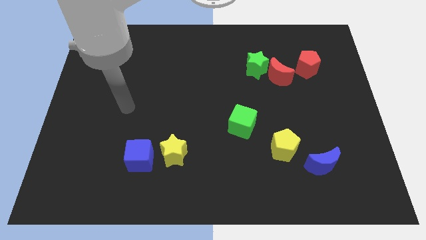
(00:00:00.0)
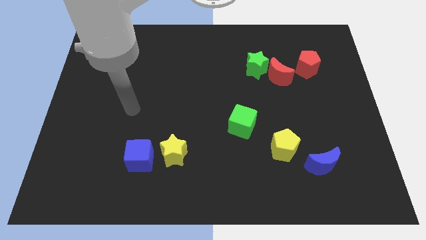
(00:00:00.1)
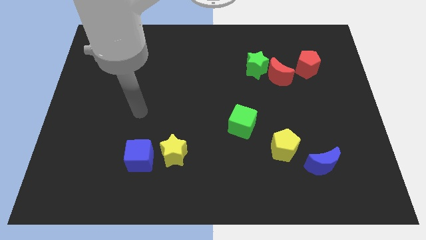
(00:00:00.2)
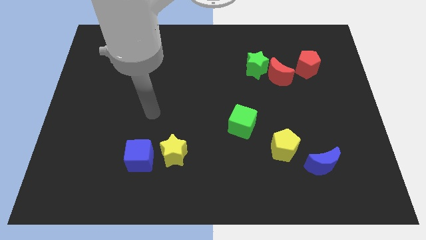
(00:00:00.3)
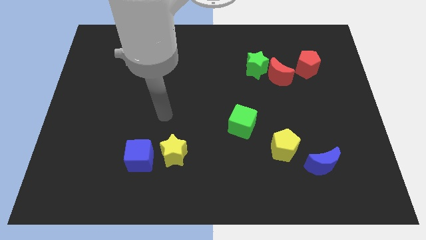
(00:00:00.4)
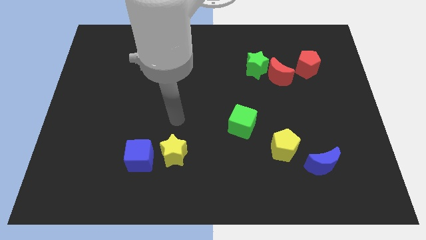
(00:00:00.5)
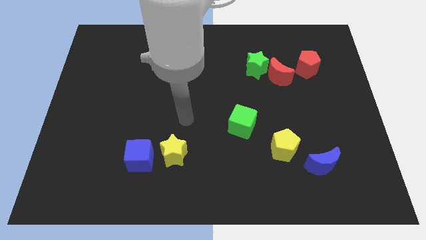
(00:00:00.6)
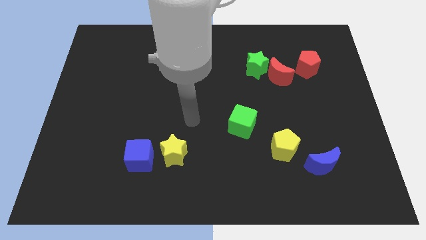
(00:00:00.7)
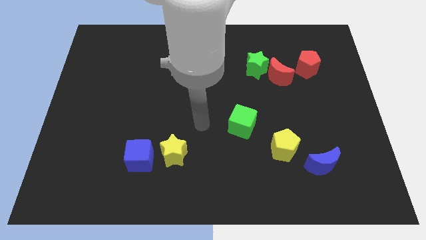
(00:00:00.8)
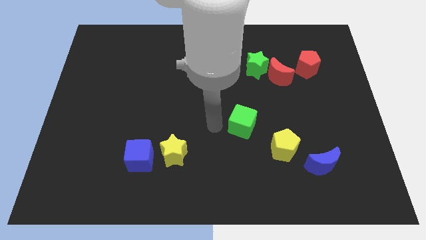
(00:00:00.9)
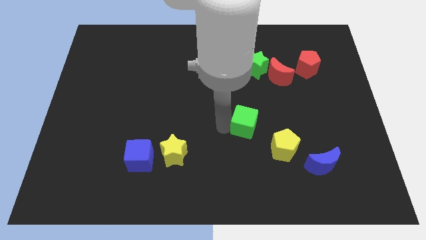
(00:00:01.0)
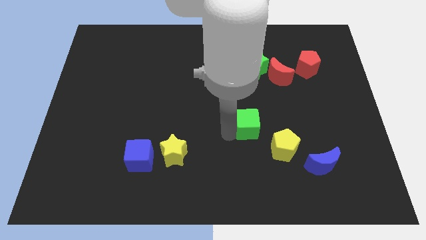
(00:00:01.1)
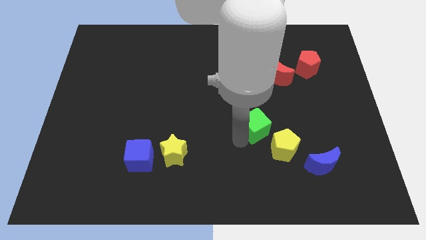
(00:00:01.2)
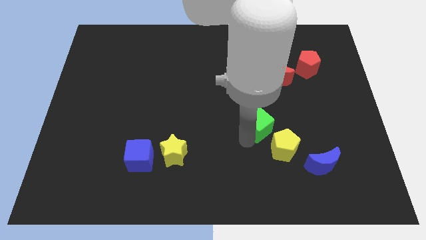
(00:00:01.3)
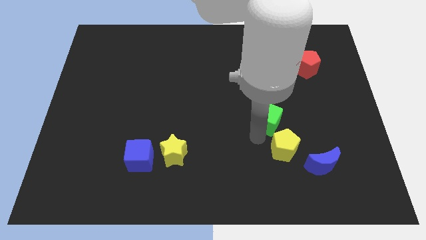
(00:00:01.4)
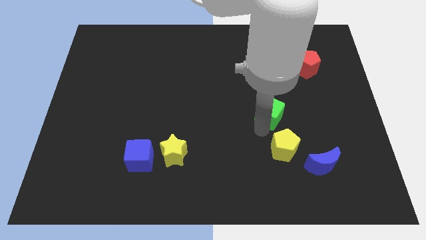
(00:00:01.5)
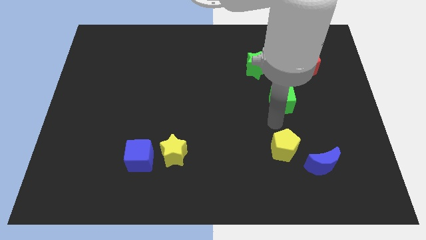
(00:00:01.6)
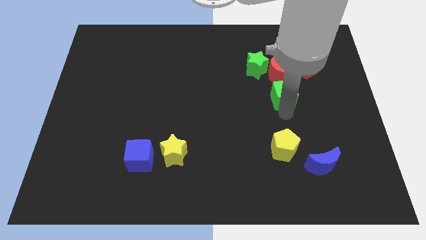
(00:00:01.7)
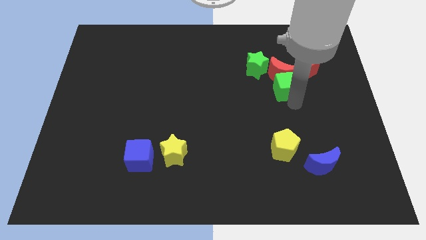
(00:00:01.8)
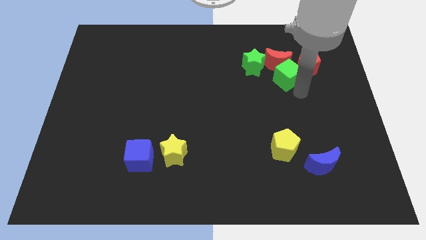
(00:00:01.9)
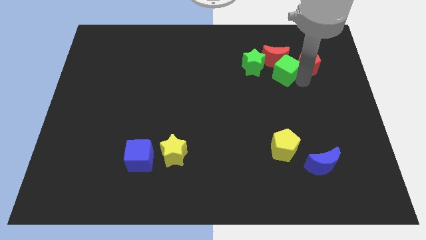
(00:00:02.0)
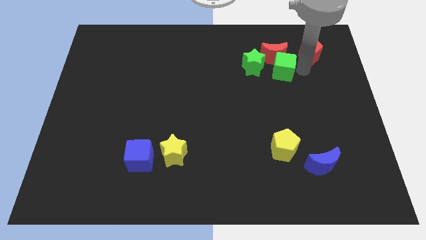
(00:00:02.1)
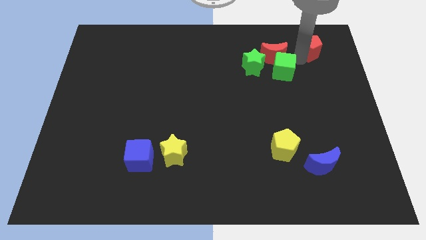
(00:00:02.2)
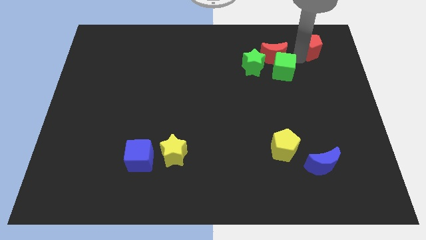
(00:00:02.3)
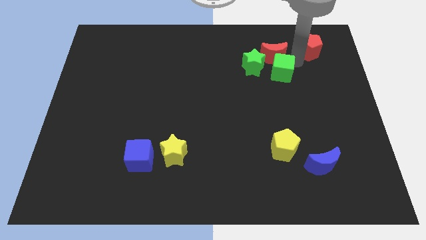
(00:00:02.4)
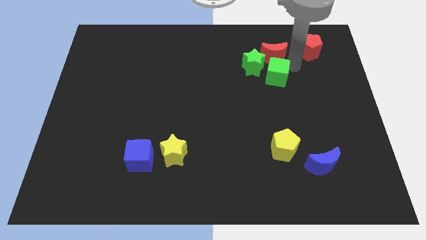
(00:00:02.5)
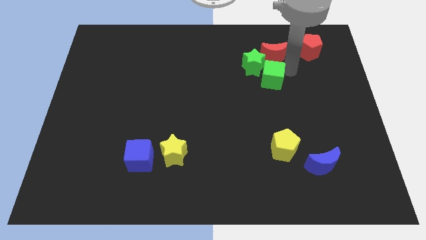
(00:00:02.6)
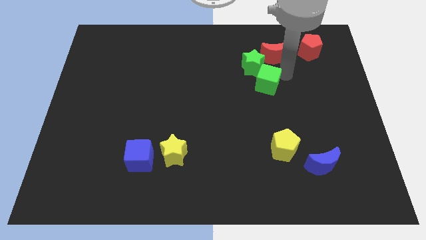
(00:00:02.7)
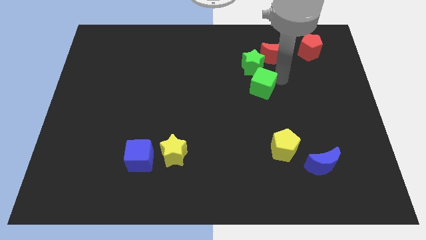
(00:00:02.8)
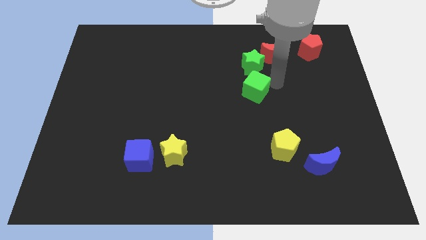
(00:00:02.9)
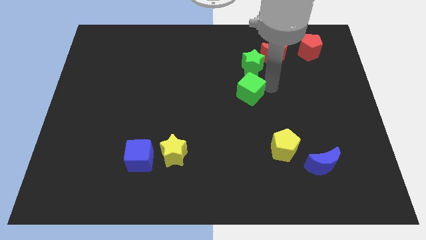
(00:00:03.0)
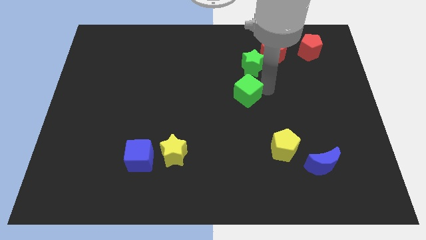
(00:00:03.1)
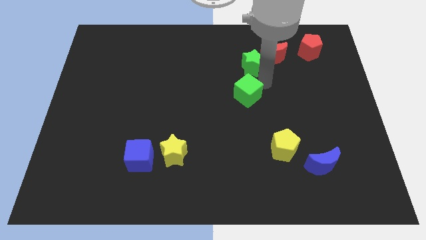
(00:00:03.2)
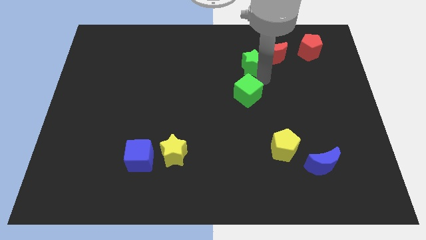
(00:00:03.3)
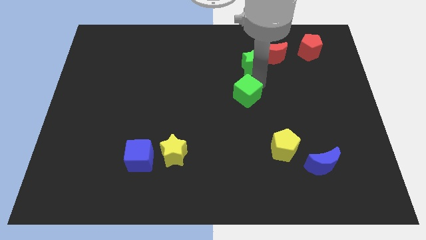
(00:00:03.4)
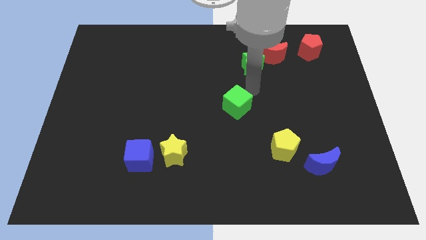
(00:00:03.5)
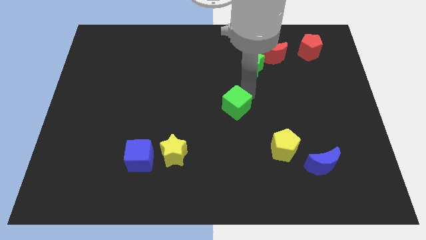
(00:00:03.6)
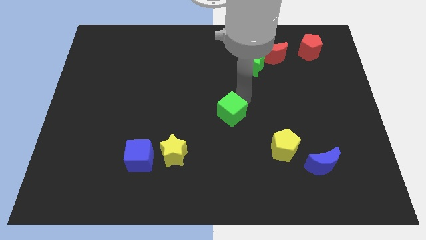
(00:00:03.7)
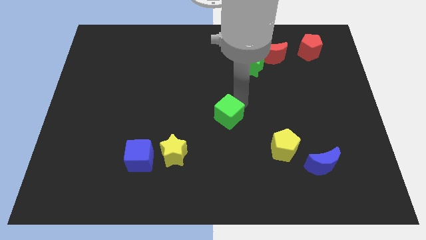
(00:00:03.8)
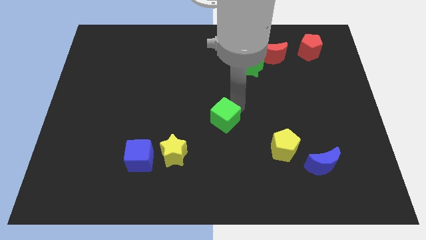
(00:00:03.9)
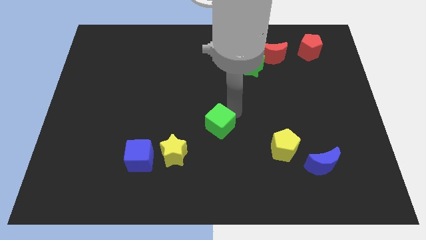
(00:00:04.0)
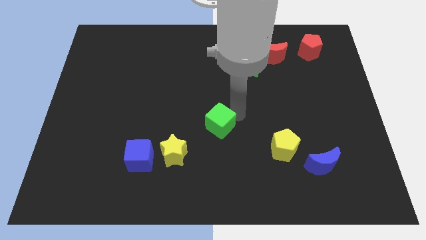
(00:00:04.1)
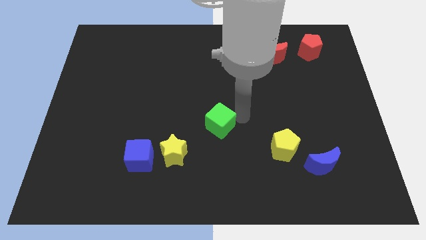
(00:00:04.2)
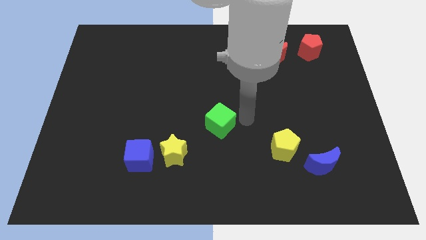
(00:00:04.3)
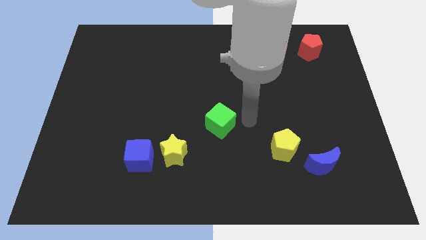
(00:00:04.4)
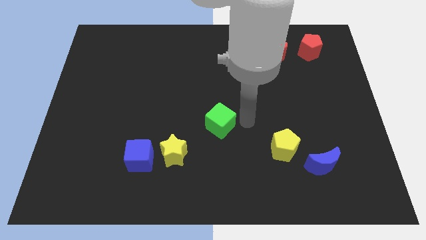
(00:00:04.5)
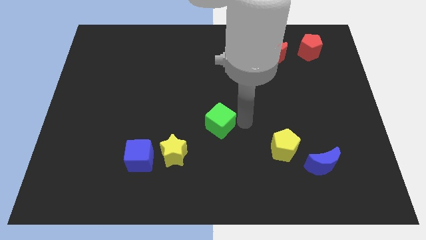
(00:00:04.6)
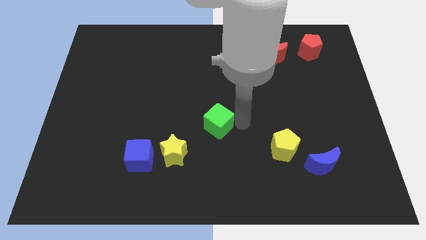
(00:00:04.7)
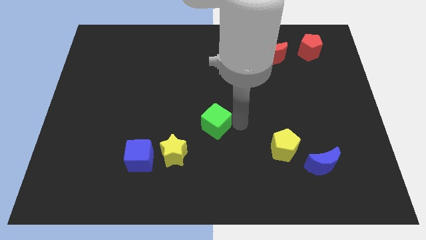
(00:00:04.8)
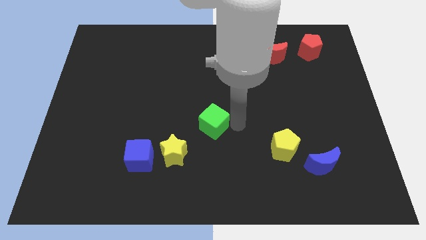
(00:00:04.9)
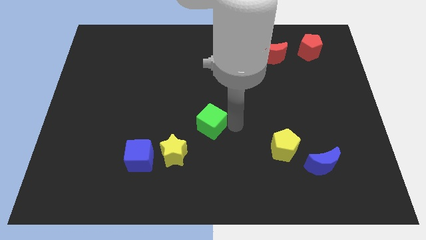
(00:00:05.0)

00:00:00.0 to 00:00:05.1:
slightly slide the green cube left

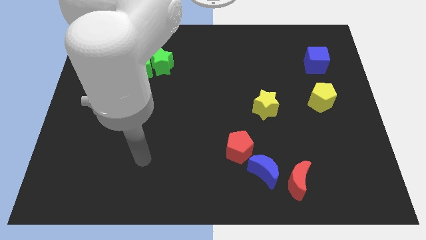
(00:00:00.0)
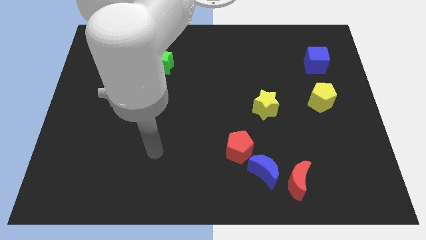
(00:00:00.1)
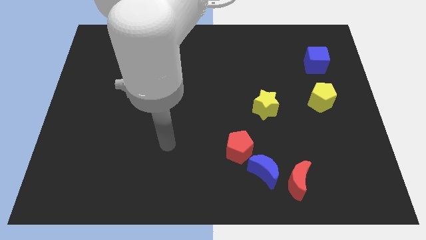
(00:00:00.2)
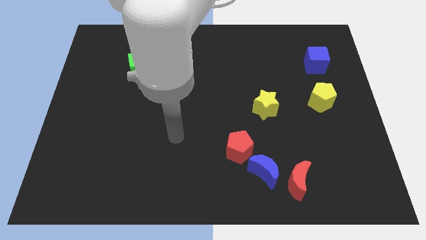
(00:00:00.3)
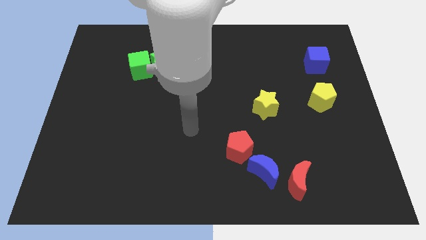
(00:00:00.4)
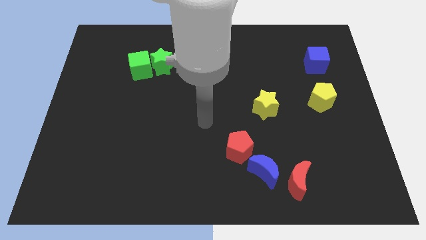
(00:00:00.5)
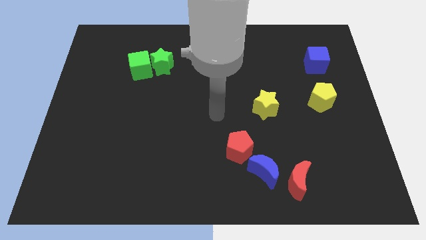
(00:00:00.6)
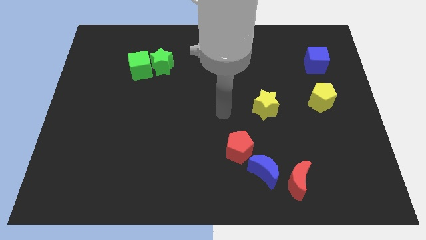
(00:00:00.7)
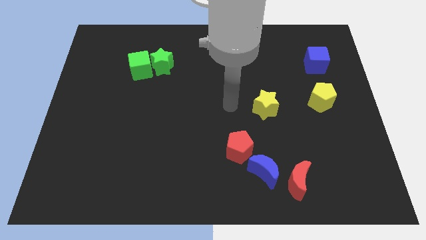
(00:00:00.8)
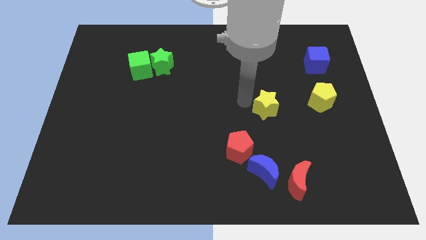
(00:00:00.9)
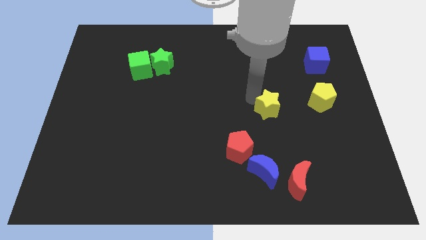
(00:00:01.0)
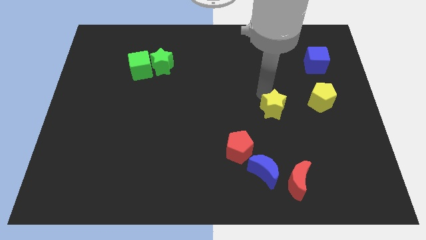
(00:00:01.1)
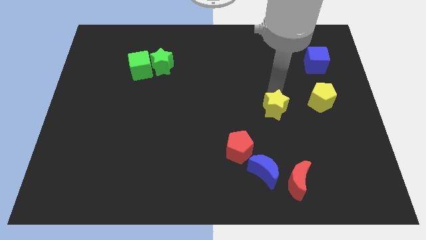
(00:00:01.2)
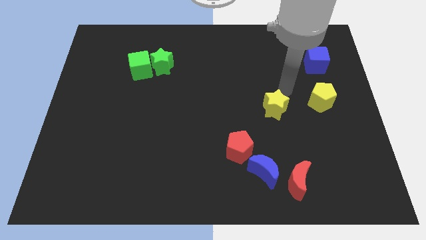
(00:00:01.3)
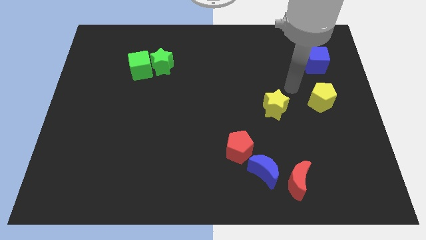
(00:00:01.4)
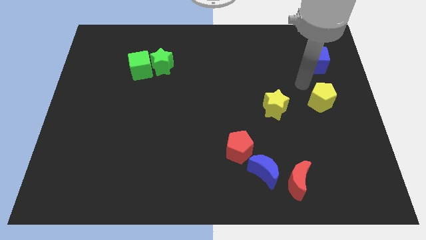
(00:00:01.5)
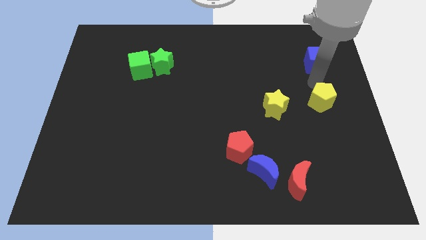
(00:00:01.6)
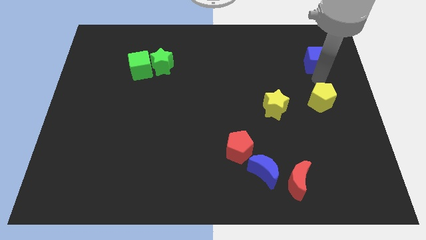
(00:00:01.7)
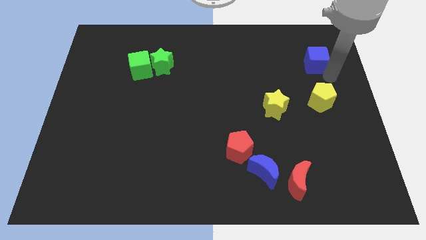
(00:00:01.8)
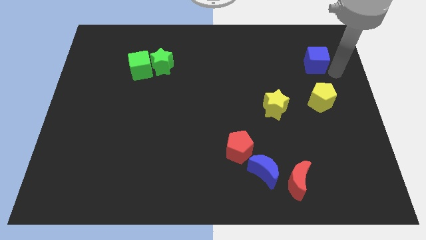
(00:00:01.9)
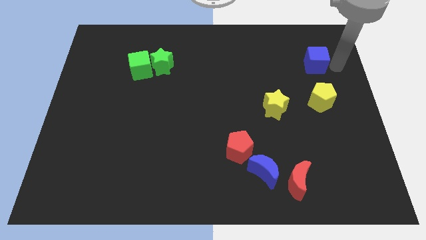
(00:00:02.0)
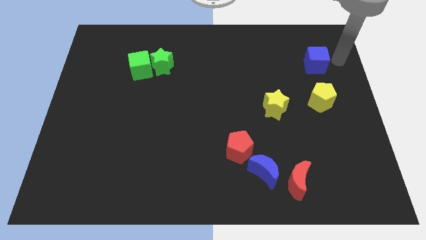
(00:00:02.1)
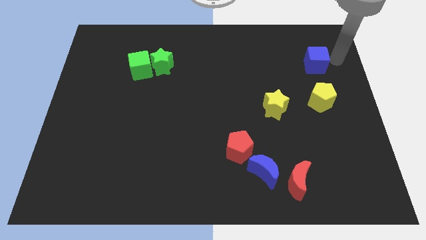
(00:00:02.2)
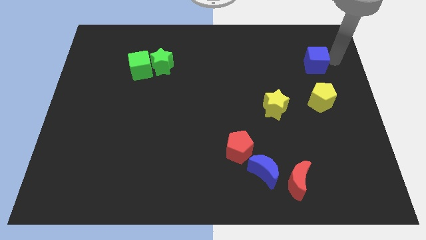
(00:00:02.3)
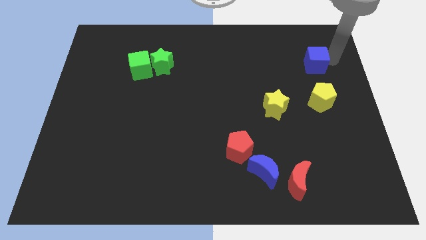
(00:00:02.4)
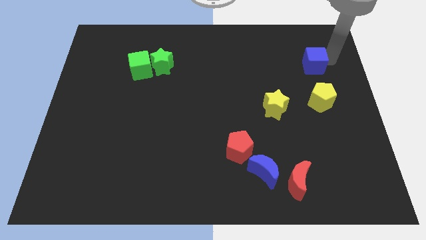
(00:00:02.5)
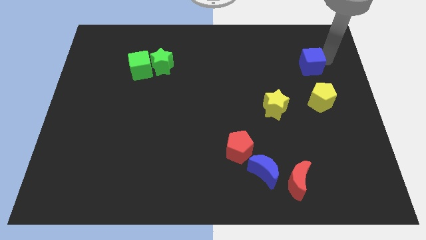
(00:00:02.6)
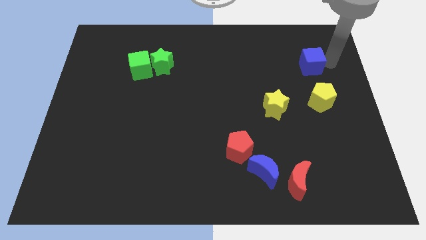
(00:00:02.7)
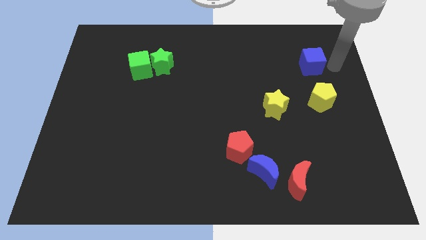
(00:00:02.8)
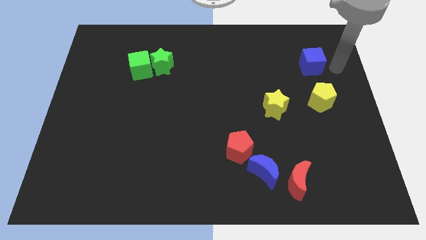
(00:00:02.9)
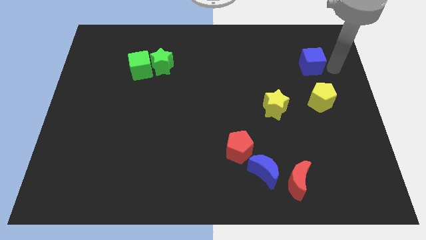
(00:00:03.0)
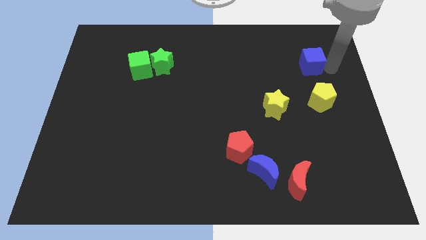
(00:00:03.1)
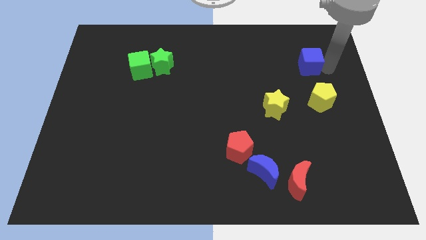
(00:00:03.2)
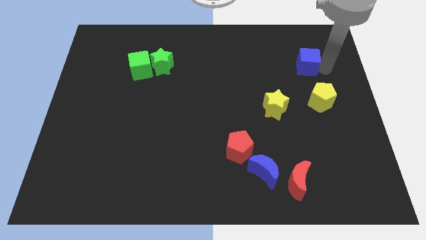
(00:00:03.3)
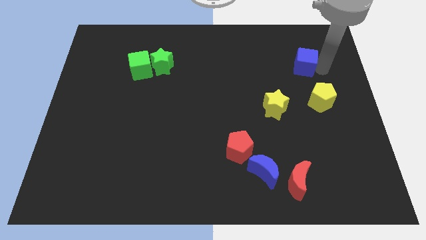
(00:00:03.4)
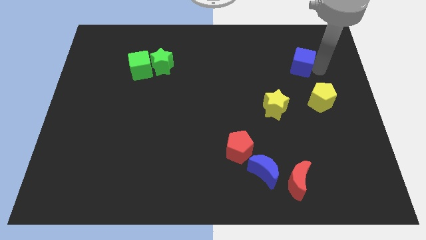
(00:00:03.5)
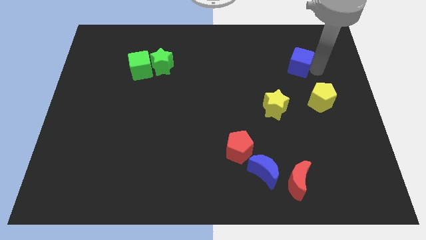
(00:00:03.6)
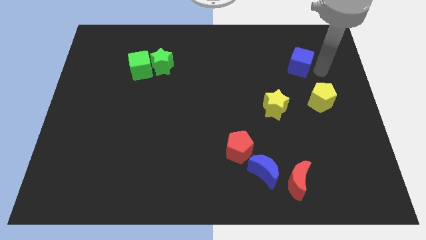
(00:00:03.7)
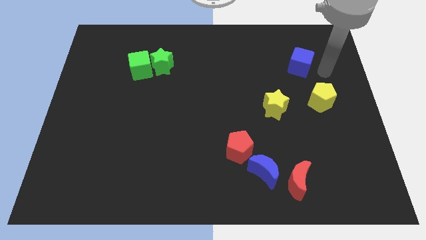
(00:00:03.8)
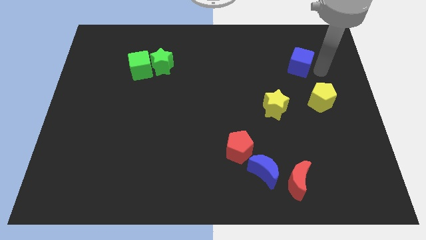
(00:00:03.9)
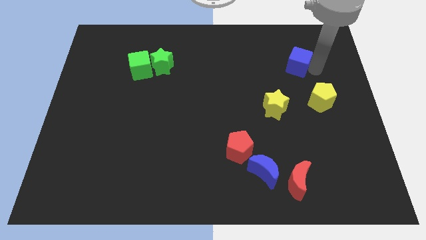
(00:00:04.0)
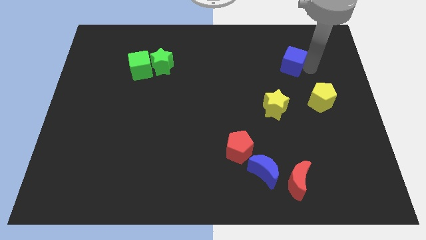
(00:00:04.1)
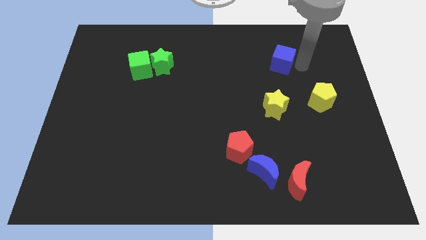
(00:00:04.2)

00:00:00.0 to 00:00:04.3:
slide the blue cube somewhat to the left
